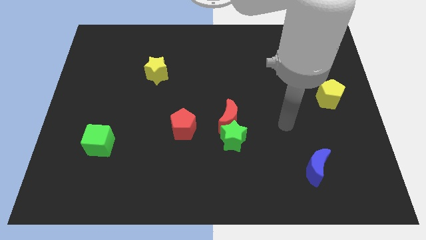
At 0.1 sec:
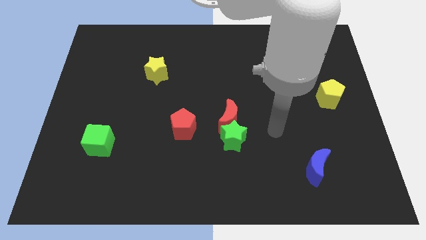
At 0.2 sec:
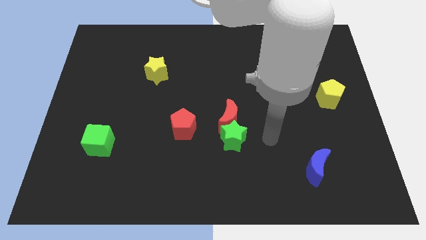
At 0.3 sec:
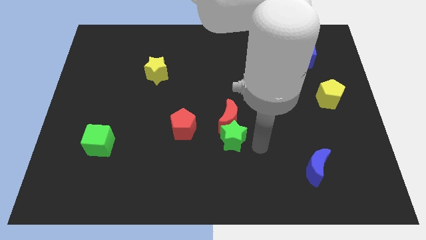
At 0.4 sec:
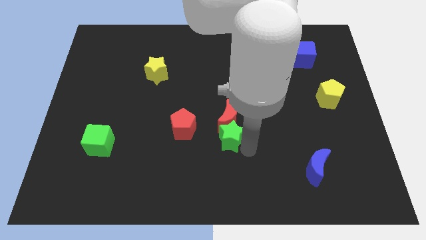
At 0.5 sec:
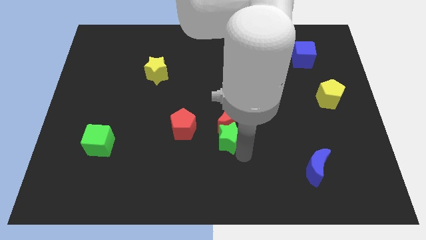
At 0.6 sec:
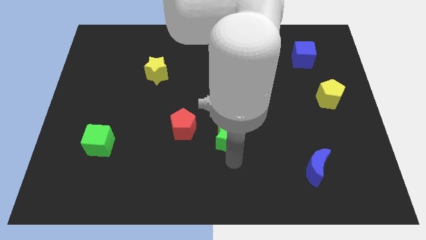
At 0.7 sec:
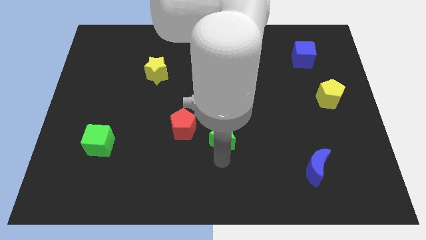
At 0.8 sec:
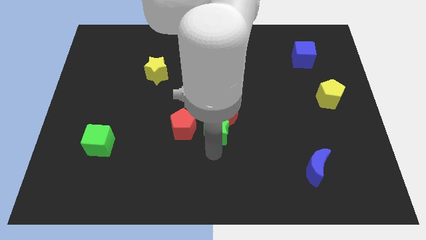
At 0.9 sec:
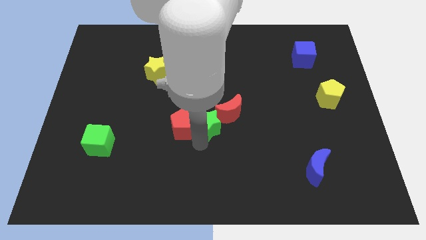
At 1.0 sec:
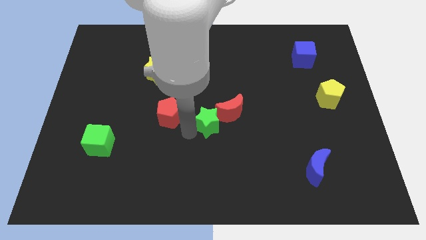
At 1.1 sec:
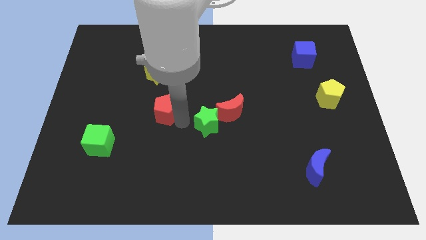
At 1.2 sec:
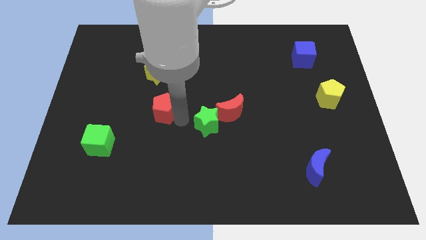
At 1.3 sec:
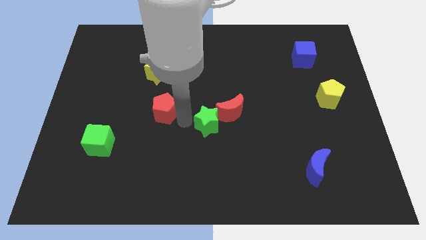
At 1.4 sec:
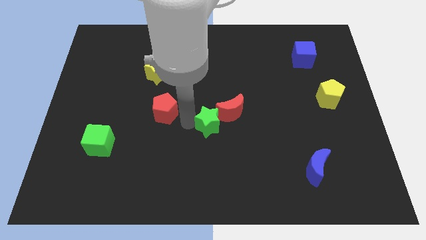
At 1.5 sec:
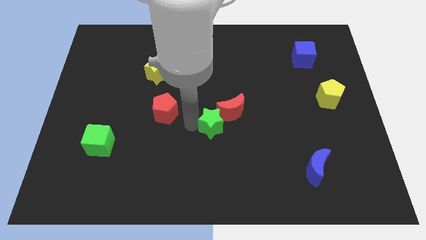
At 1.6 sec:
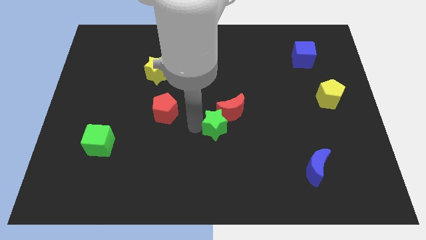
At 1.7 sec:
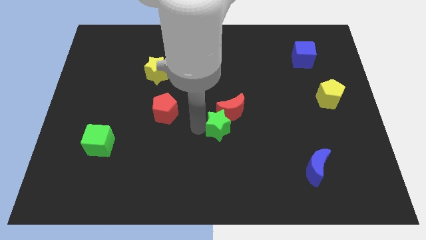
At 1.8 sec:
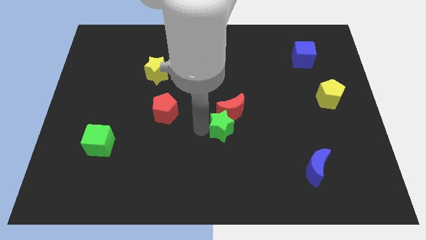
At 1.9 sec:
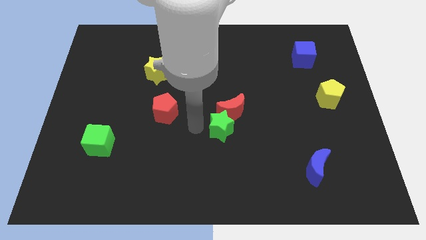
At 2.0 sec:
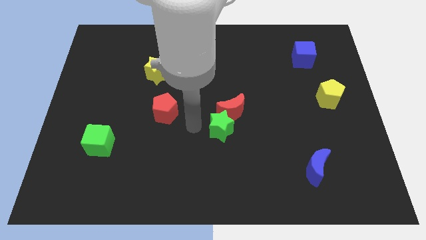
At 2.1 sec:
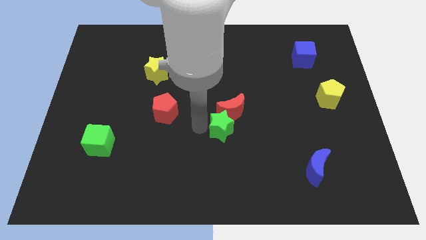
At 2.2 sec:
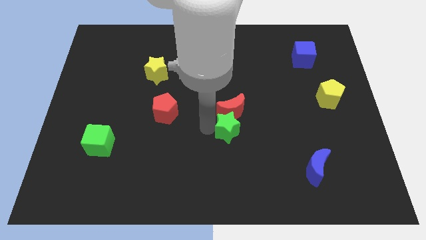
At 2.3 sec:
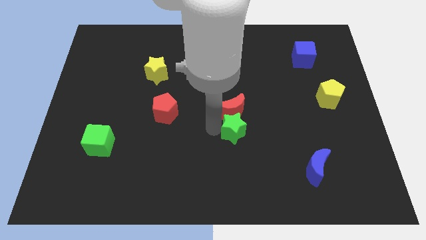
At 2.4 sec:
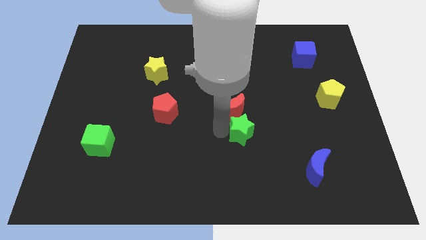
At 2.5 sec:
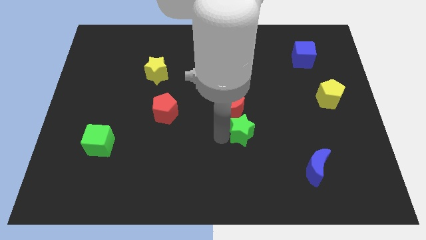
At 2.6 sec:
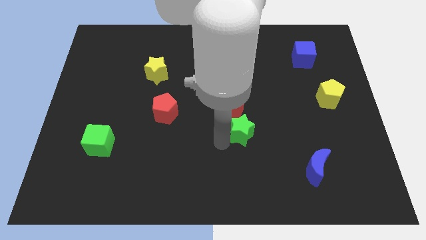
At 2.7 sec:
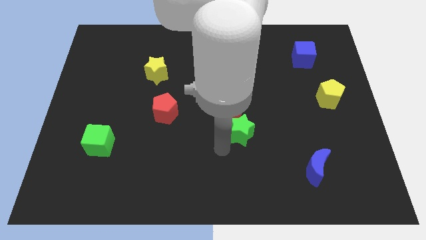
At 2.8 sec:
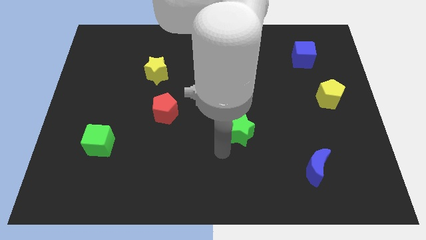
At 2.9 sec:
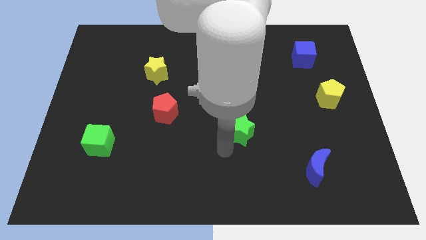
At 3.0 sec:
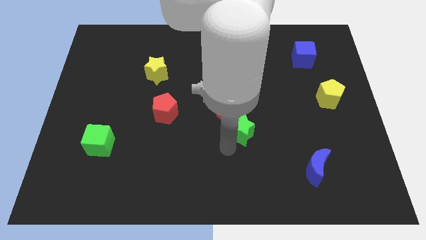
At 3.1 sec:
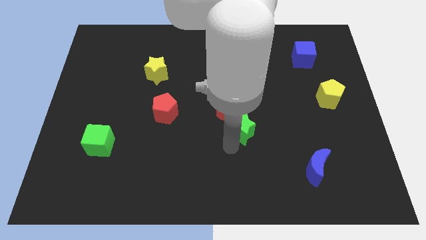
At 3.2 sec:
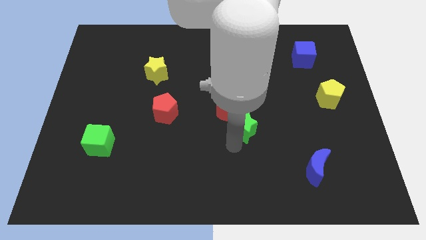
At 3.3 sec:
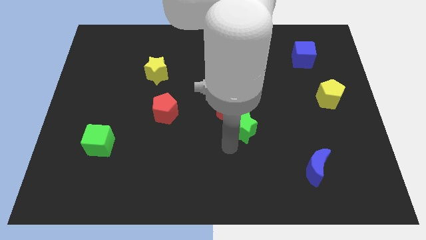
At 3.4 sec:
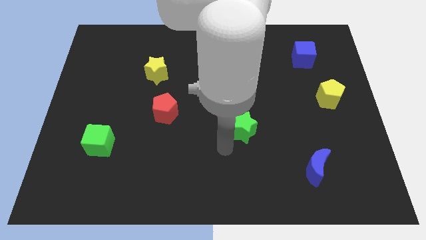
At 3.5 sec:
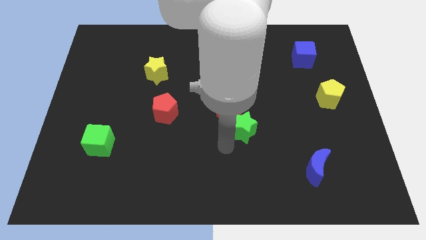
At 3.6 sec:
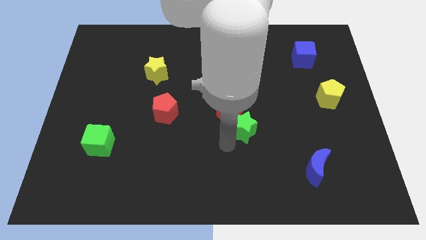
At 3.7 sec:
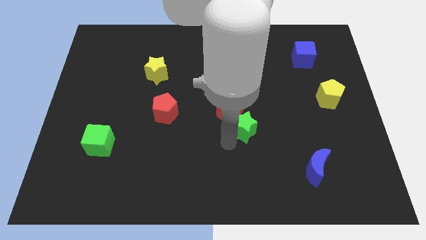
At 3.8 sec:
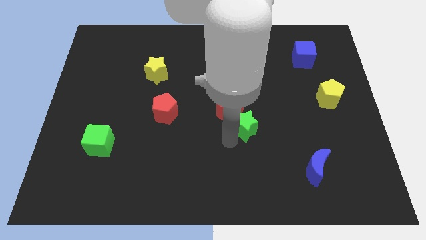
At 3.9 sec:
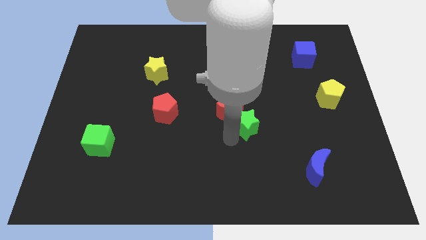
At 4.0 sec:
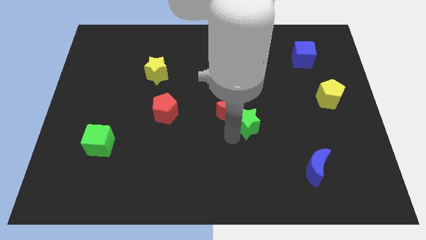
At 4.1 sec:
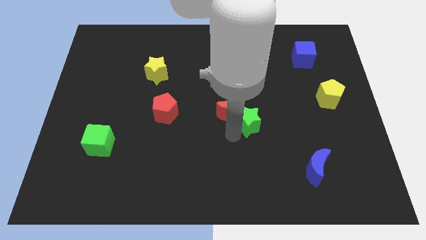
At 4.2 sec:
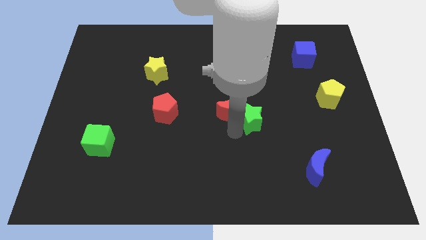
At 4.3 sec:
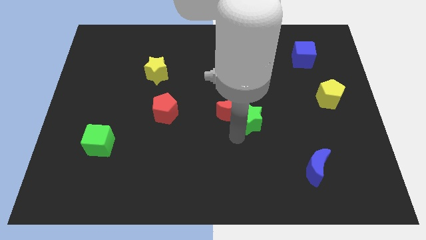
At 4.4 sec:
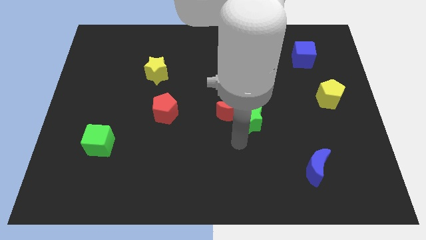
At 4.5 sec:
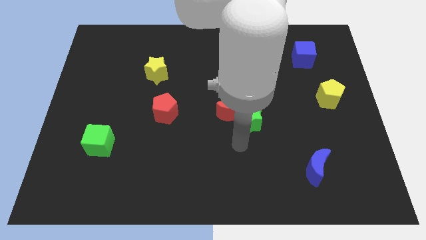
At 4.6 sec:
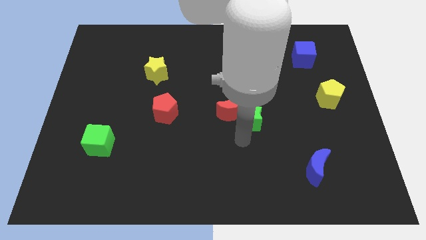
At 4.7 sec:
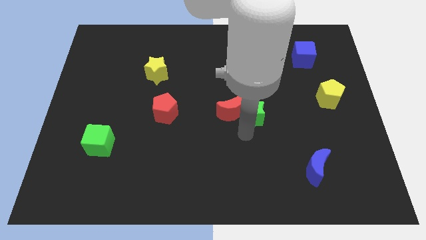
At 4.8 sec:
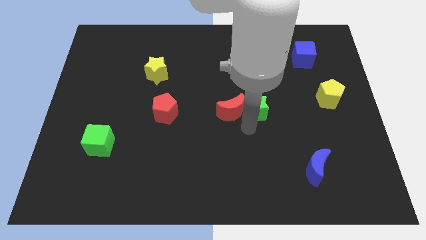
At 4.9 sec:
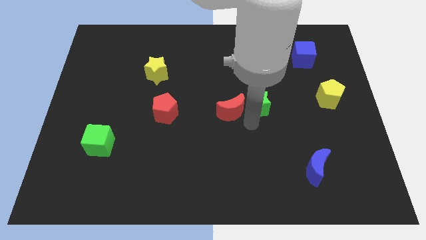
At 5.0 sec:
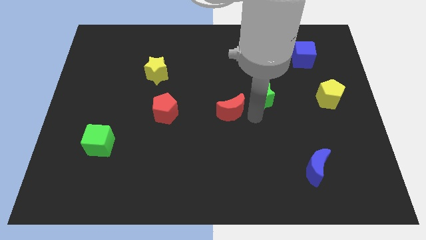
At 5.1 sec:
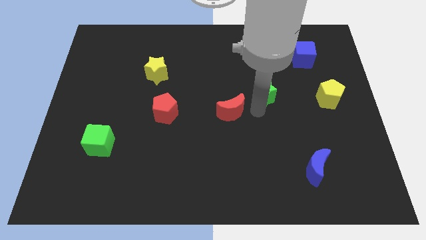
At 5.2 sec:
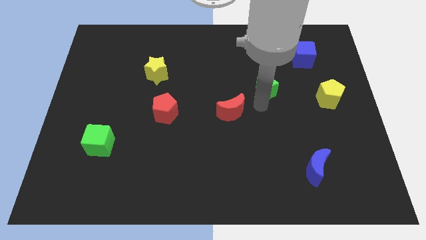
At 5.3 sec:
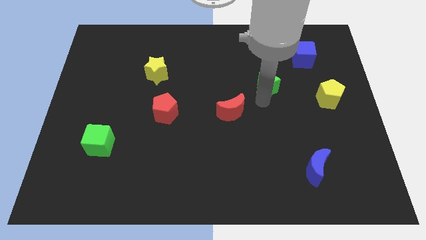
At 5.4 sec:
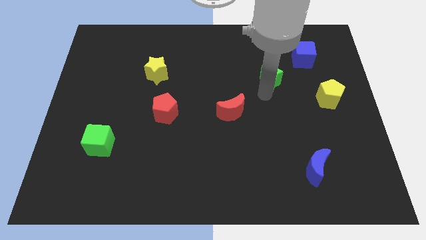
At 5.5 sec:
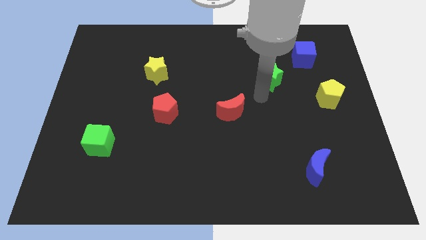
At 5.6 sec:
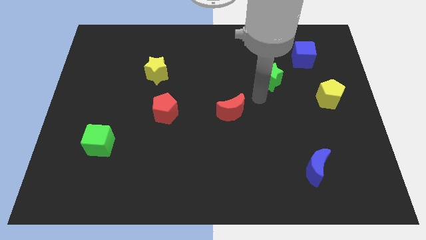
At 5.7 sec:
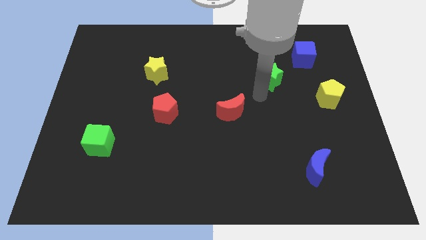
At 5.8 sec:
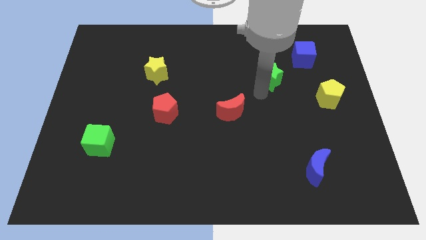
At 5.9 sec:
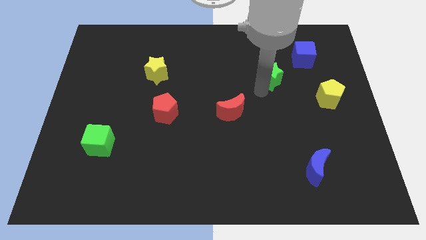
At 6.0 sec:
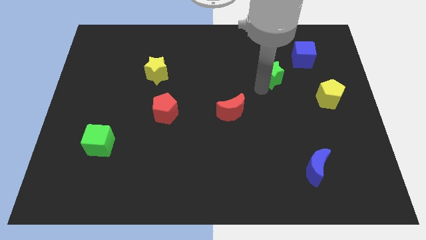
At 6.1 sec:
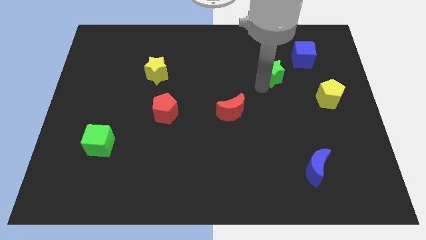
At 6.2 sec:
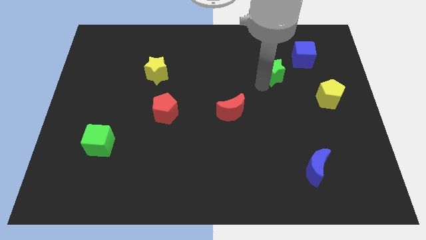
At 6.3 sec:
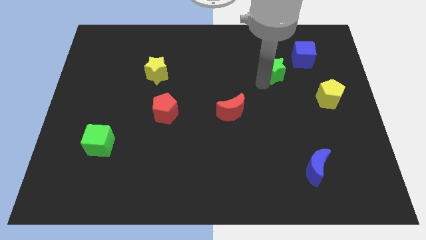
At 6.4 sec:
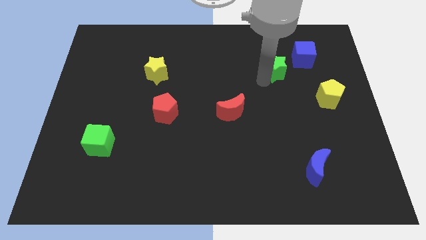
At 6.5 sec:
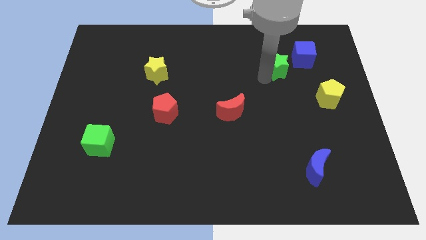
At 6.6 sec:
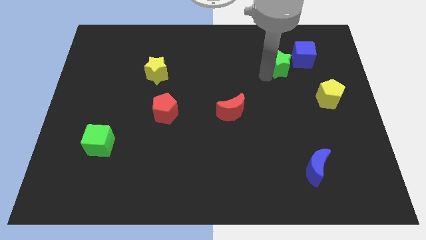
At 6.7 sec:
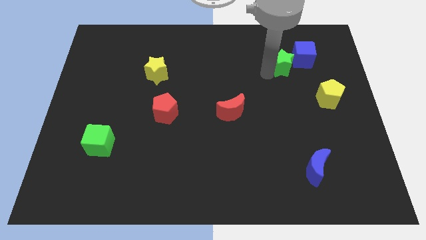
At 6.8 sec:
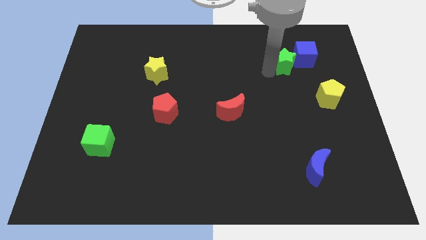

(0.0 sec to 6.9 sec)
move the green star towards the blue cube

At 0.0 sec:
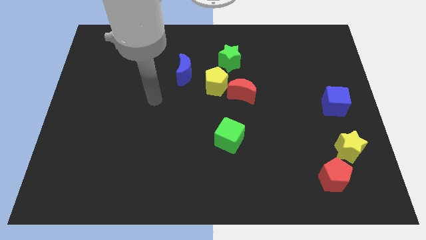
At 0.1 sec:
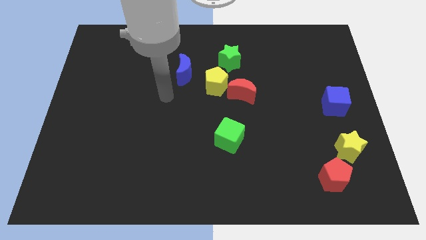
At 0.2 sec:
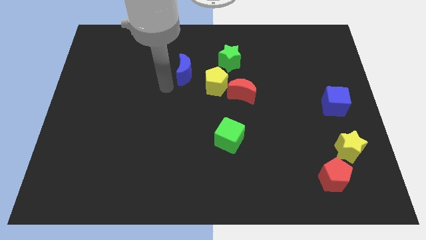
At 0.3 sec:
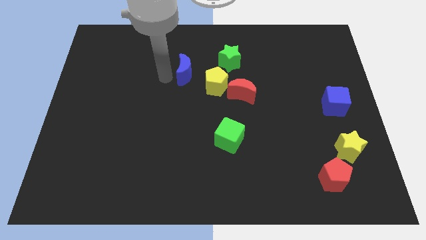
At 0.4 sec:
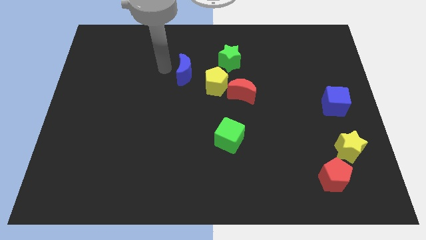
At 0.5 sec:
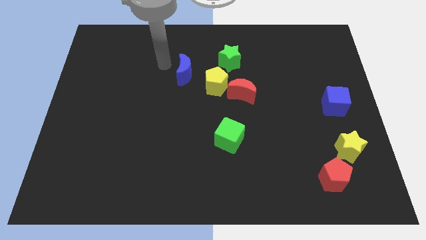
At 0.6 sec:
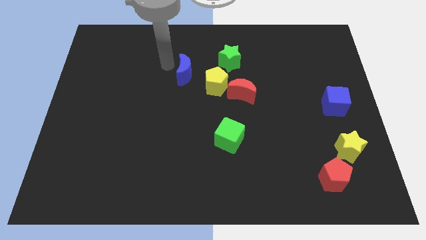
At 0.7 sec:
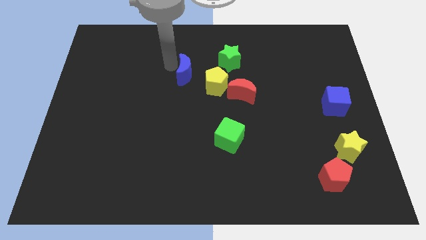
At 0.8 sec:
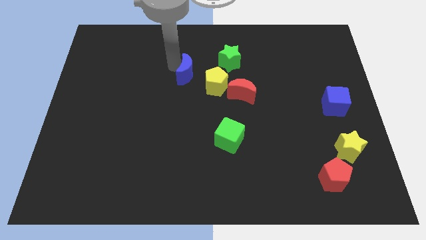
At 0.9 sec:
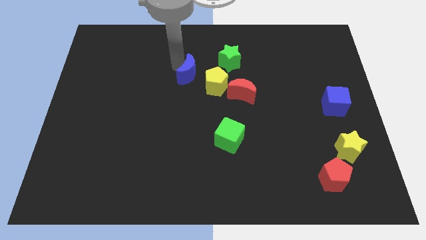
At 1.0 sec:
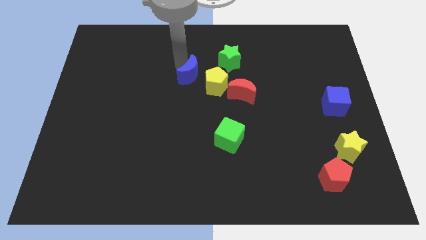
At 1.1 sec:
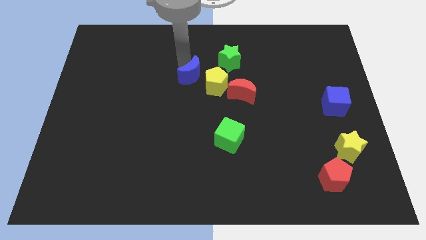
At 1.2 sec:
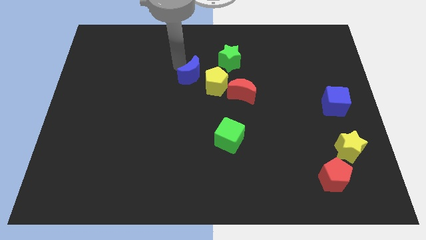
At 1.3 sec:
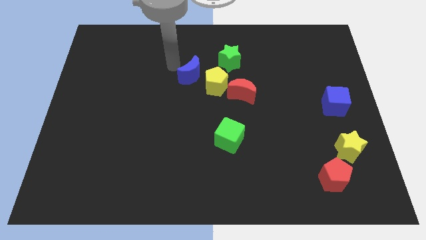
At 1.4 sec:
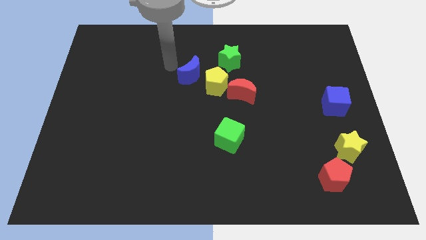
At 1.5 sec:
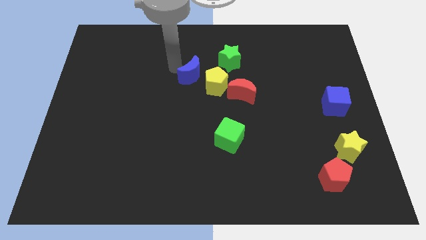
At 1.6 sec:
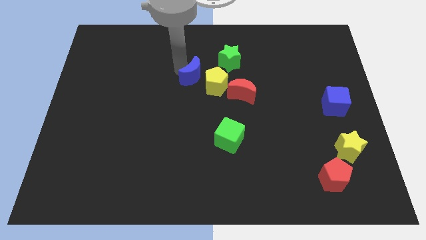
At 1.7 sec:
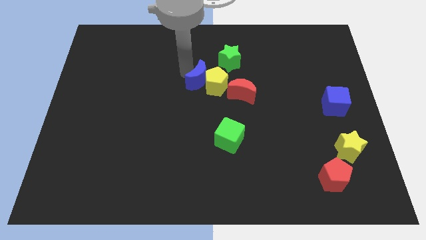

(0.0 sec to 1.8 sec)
slide the blue moon close to the yellow pentagon
